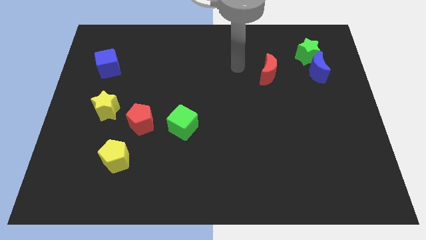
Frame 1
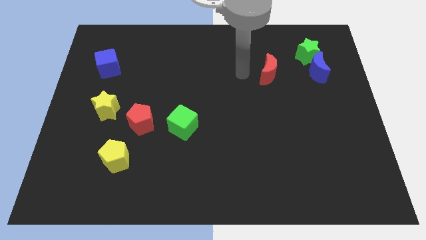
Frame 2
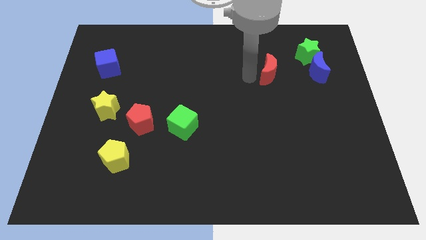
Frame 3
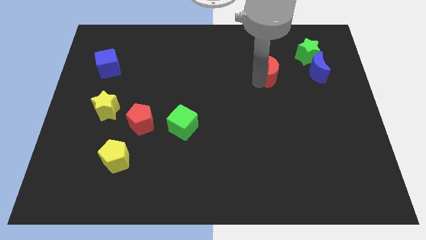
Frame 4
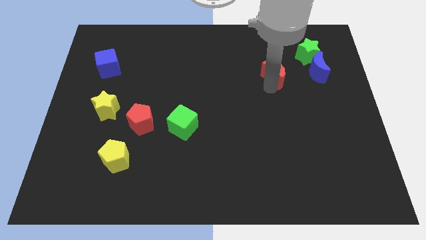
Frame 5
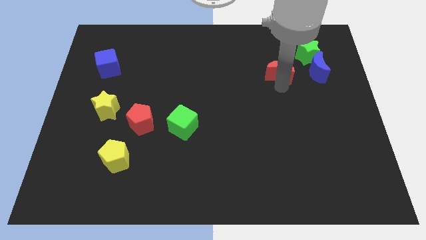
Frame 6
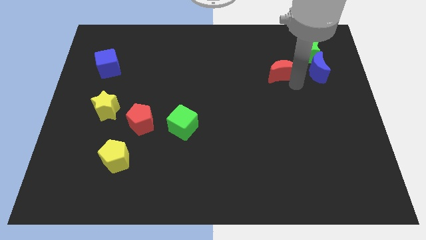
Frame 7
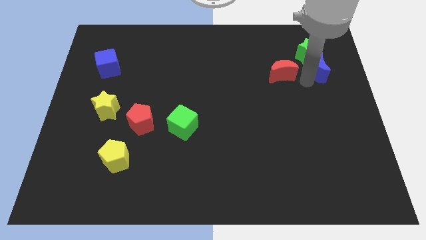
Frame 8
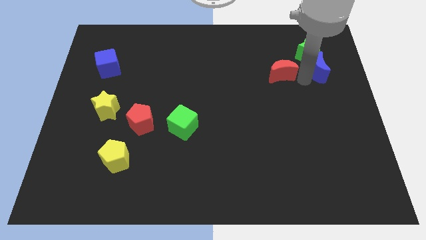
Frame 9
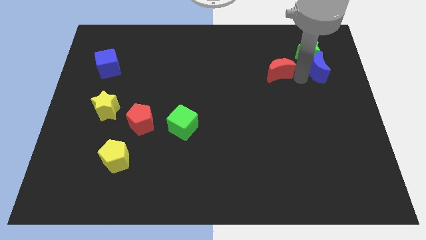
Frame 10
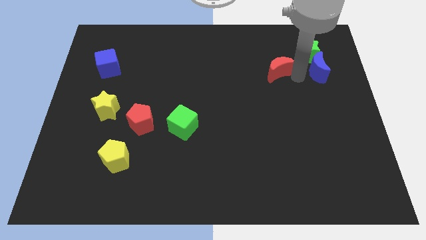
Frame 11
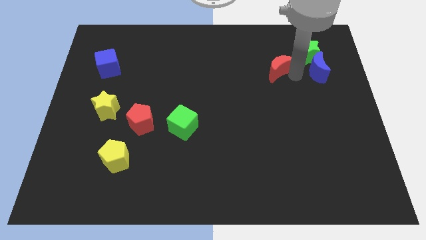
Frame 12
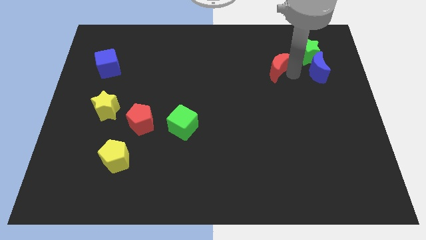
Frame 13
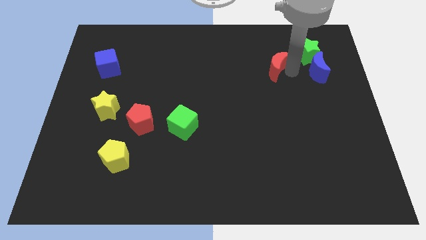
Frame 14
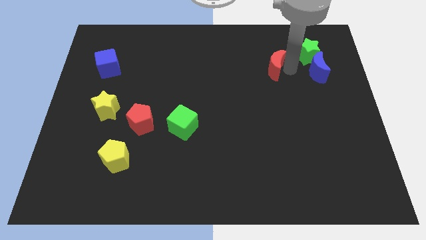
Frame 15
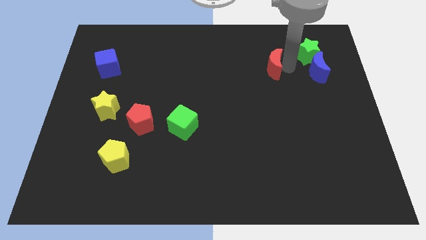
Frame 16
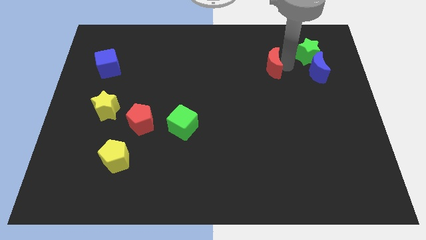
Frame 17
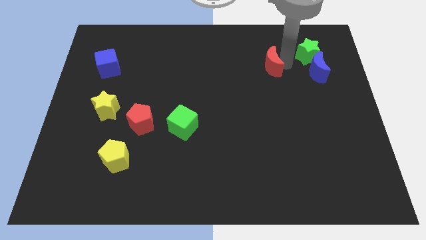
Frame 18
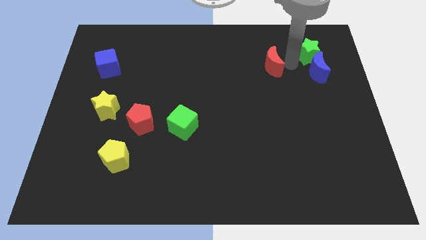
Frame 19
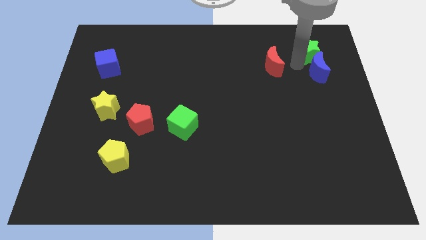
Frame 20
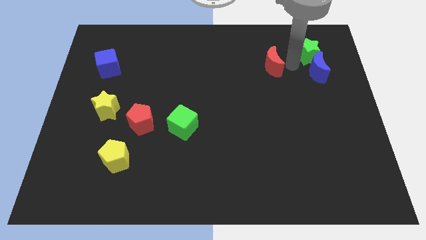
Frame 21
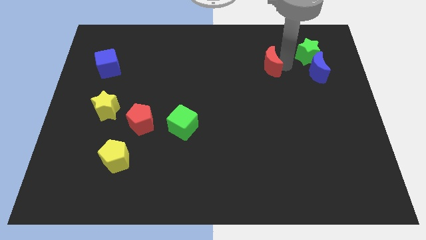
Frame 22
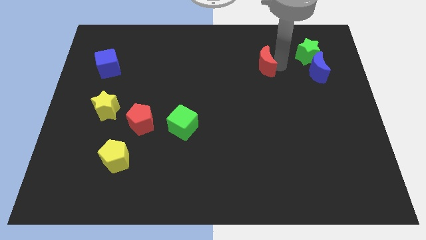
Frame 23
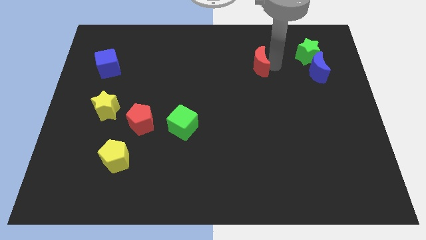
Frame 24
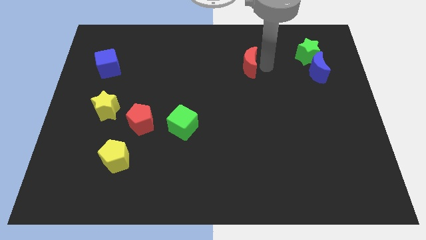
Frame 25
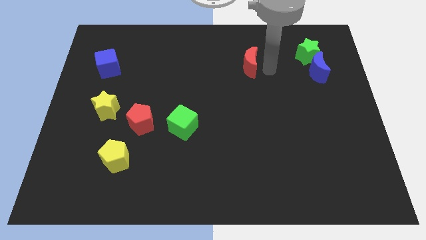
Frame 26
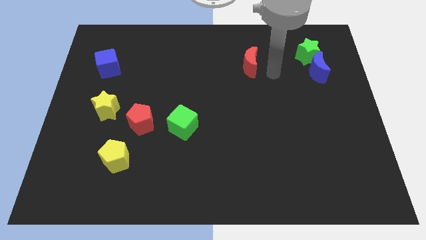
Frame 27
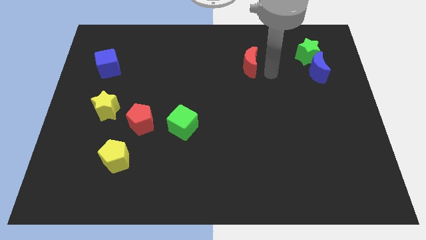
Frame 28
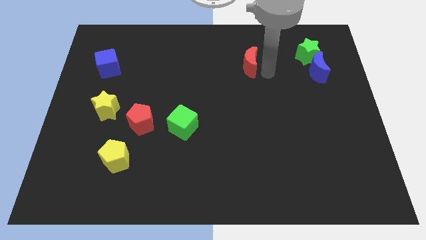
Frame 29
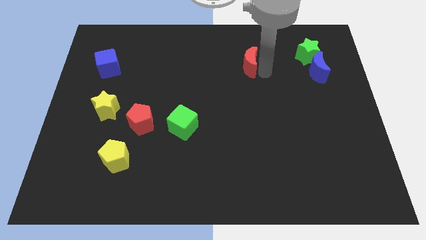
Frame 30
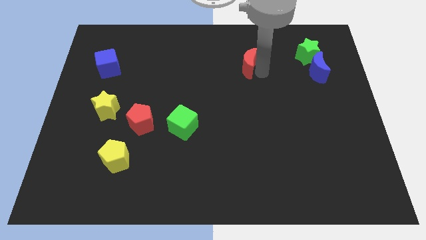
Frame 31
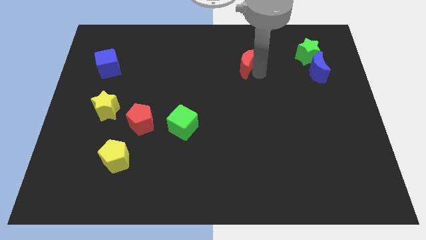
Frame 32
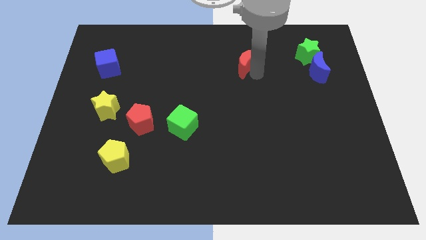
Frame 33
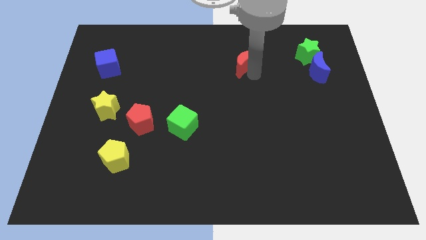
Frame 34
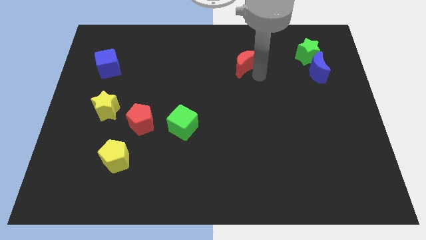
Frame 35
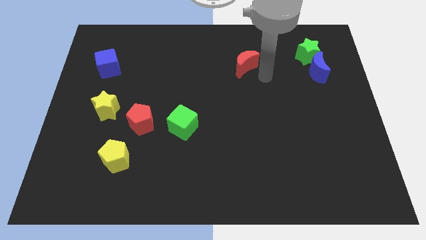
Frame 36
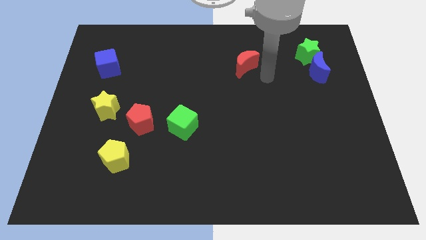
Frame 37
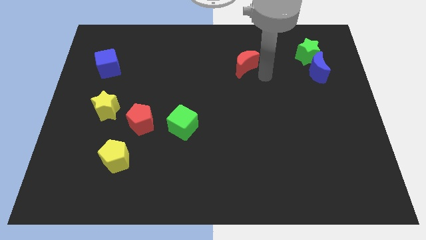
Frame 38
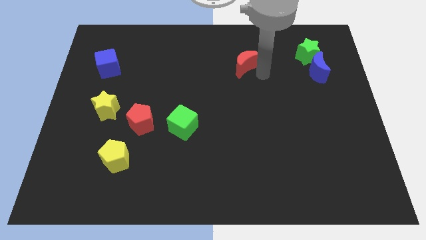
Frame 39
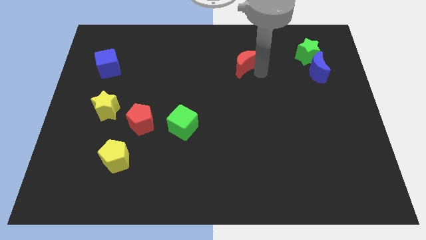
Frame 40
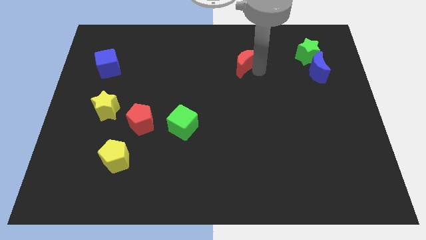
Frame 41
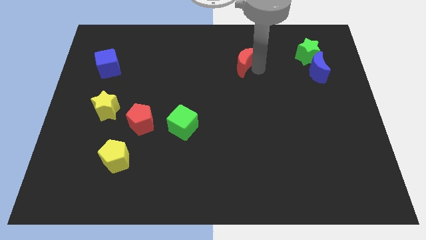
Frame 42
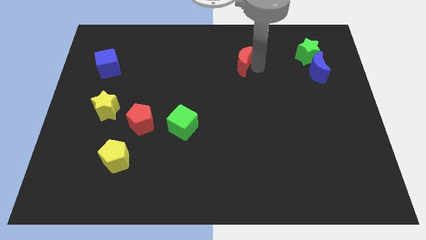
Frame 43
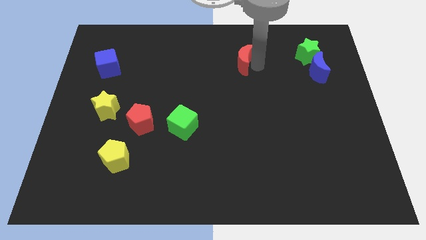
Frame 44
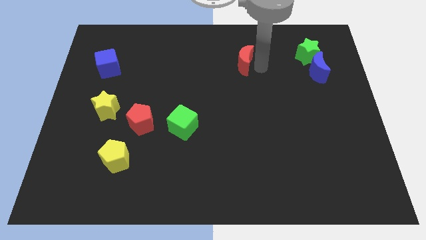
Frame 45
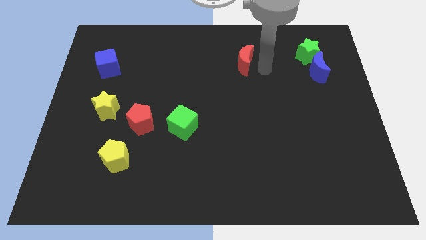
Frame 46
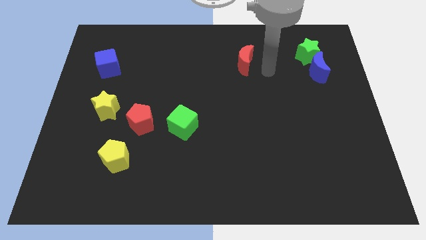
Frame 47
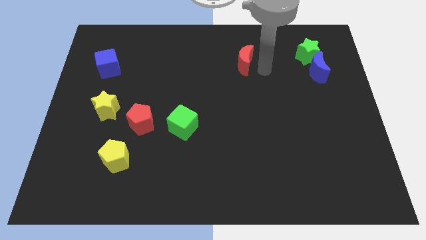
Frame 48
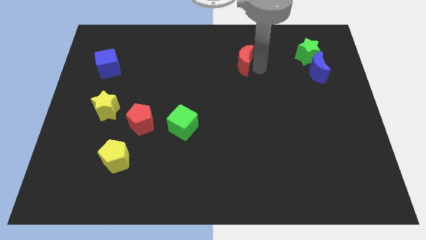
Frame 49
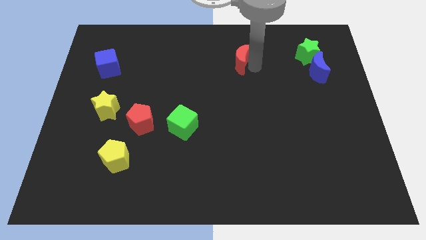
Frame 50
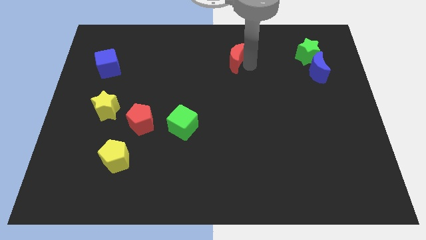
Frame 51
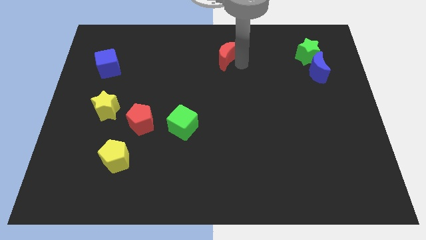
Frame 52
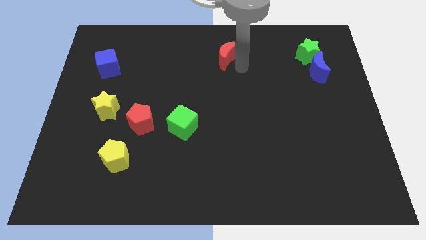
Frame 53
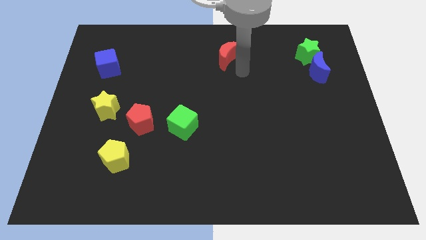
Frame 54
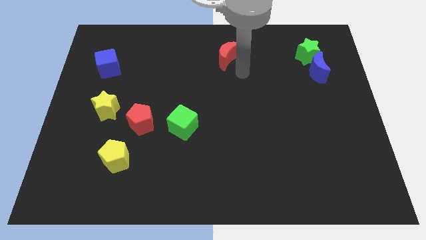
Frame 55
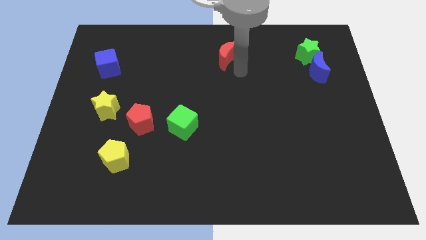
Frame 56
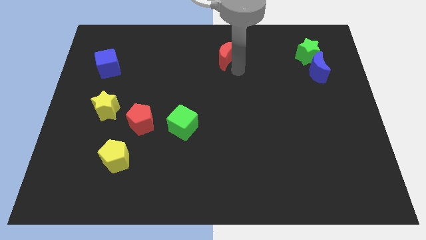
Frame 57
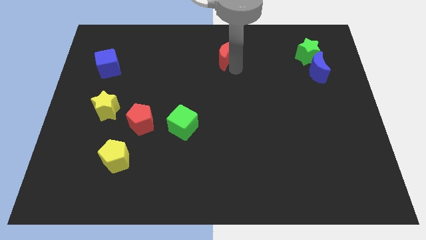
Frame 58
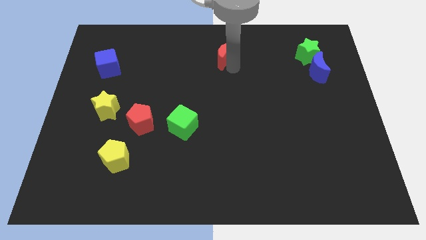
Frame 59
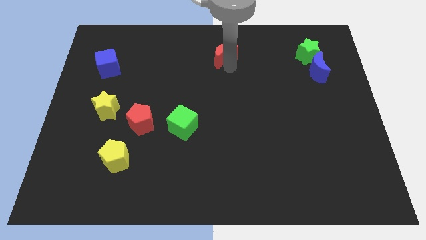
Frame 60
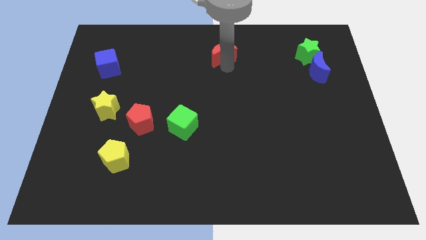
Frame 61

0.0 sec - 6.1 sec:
move the red moon to the top side
